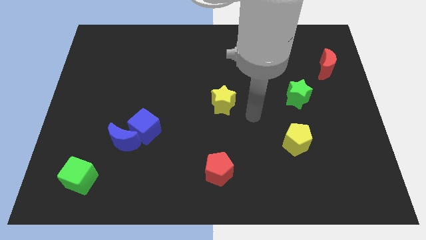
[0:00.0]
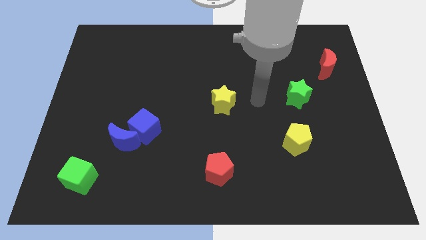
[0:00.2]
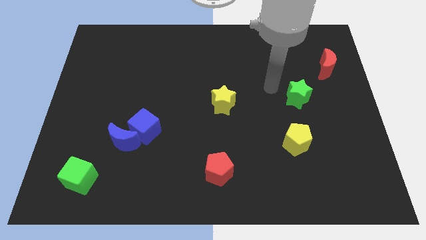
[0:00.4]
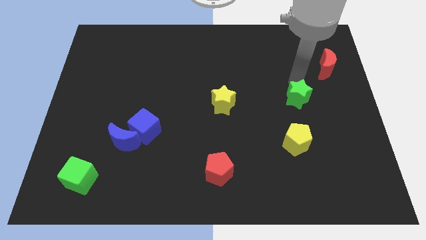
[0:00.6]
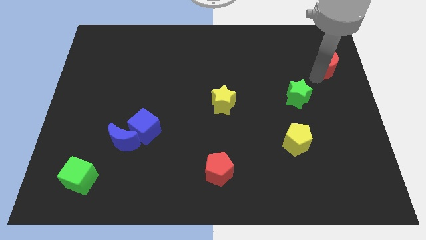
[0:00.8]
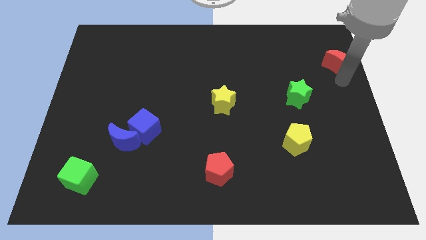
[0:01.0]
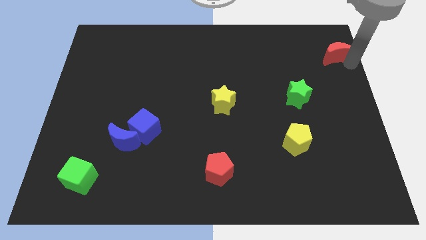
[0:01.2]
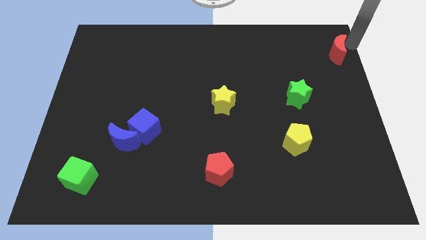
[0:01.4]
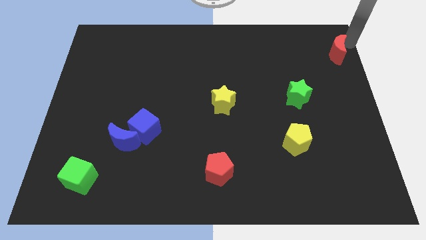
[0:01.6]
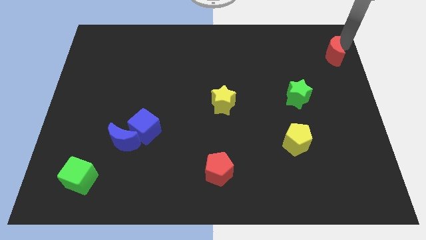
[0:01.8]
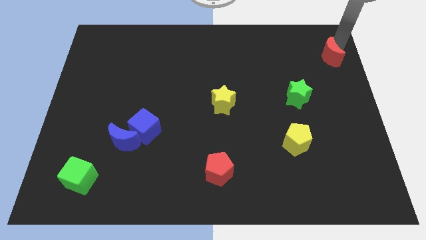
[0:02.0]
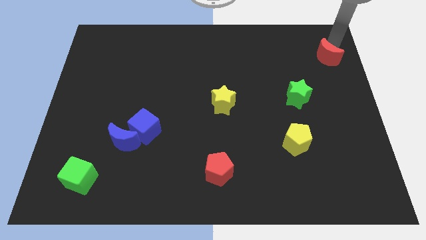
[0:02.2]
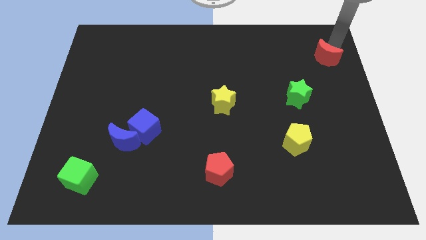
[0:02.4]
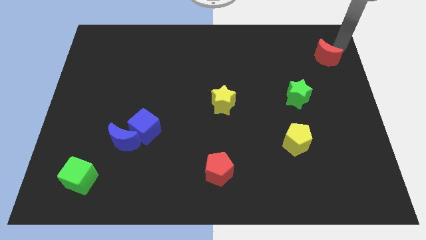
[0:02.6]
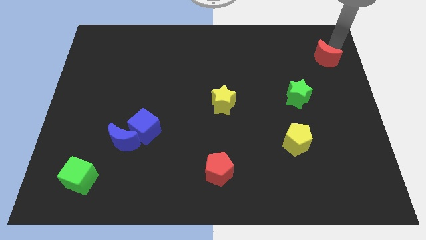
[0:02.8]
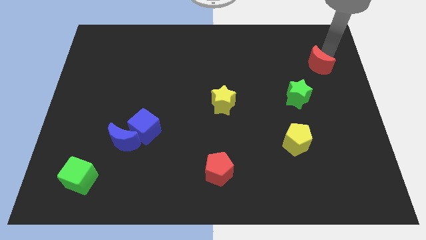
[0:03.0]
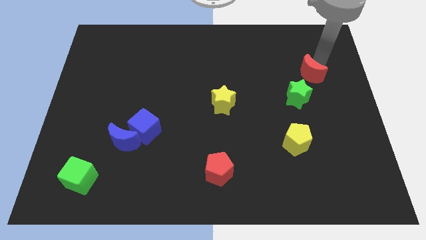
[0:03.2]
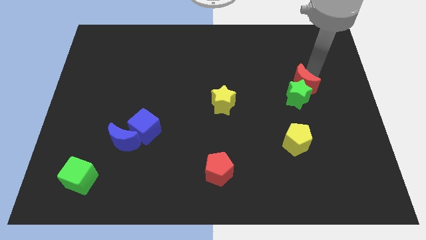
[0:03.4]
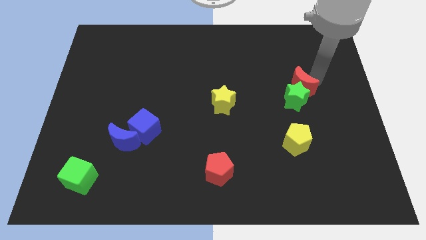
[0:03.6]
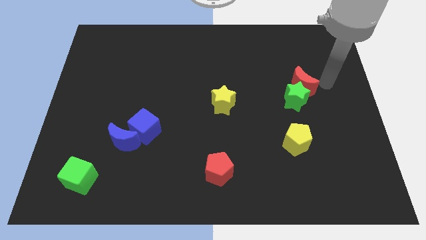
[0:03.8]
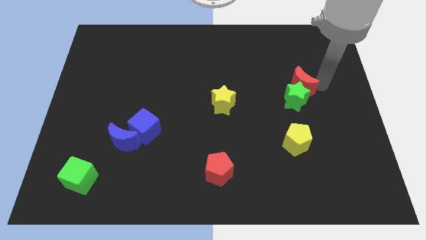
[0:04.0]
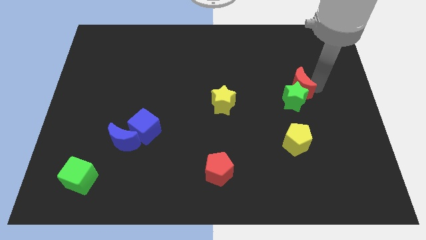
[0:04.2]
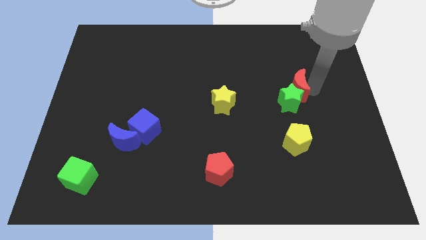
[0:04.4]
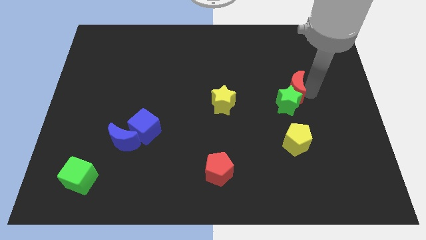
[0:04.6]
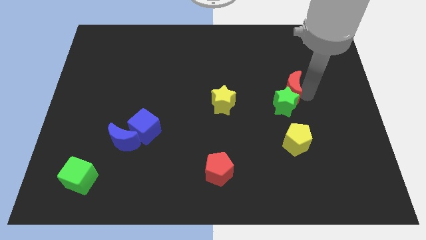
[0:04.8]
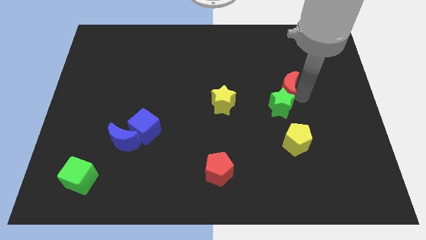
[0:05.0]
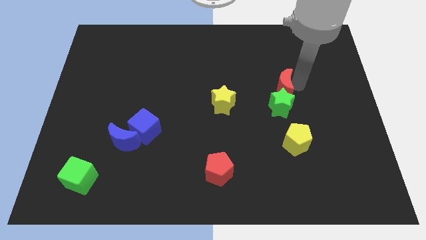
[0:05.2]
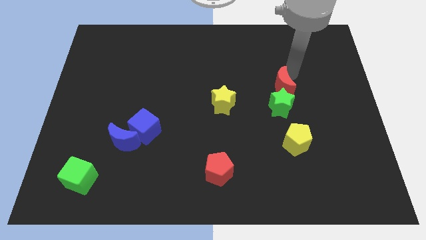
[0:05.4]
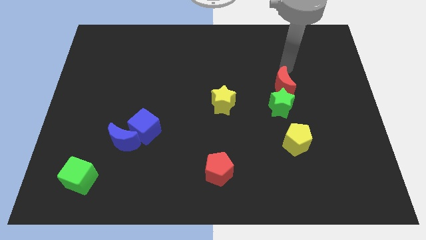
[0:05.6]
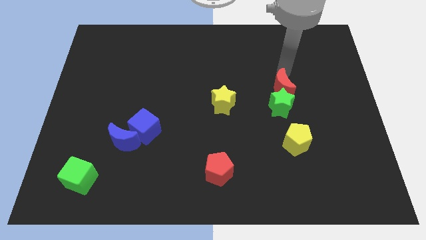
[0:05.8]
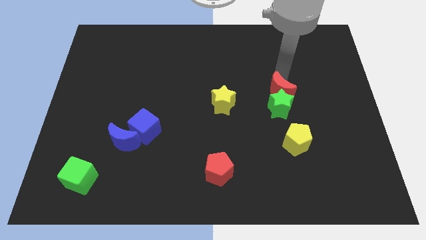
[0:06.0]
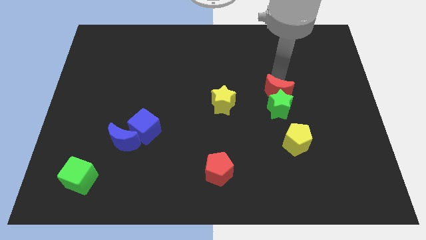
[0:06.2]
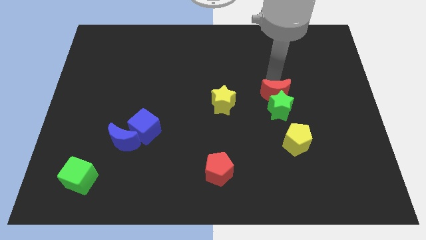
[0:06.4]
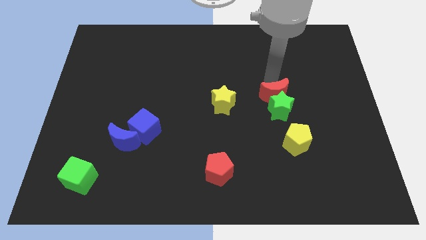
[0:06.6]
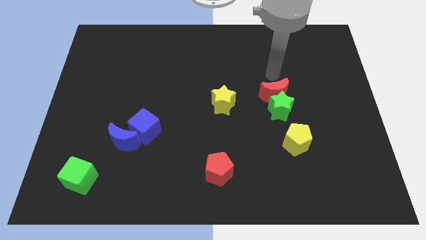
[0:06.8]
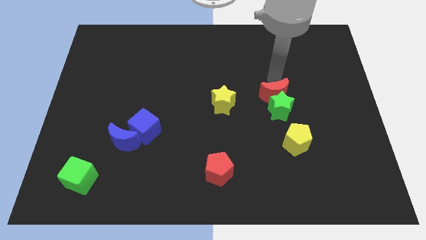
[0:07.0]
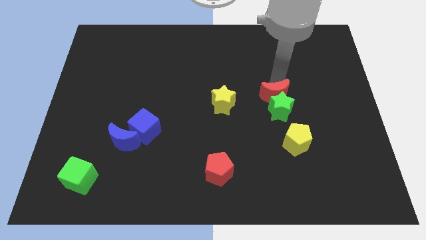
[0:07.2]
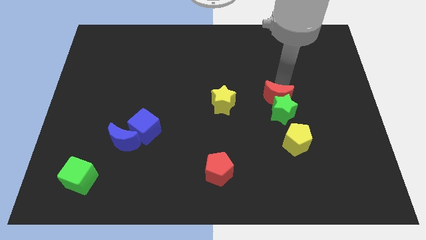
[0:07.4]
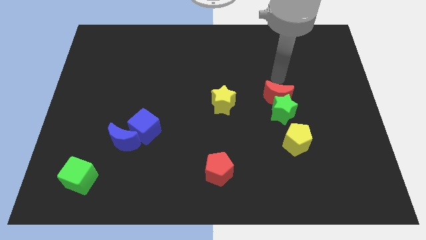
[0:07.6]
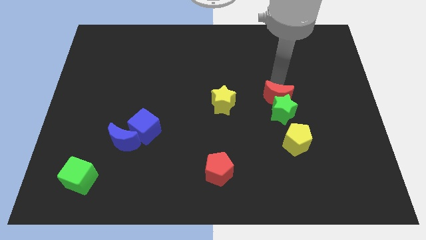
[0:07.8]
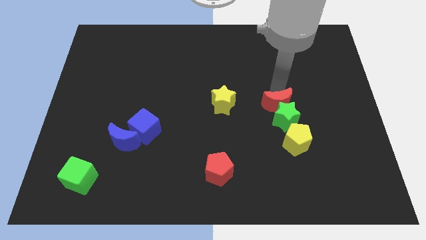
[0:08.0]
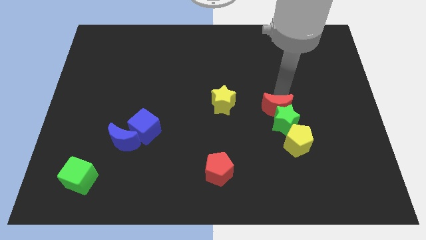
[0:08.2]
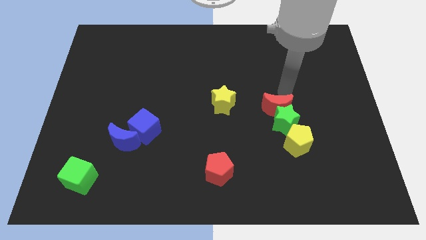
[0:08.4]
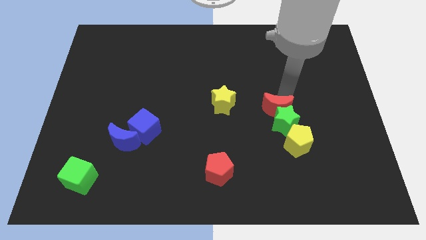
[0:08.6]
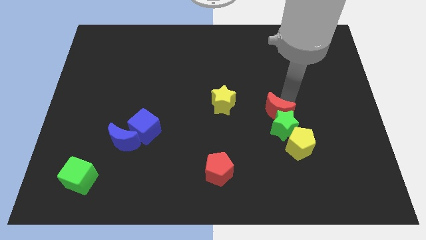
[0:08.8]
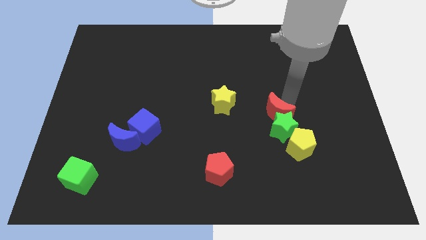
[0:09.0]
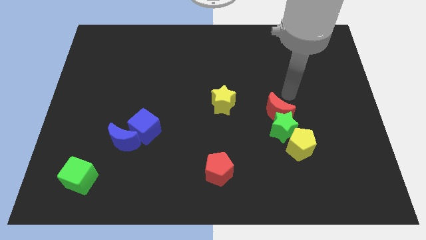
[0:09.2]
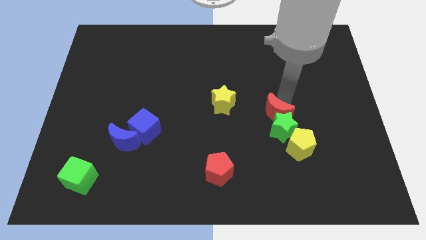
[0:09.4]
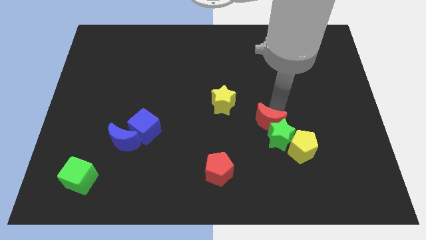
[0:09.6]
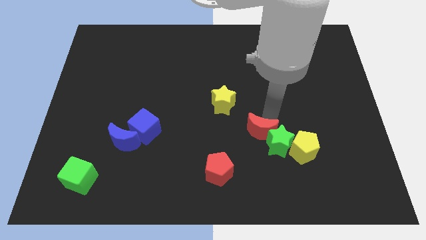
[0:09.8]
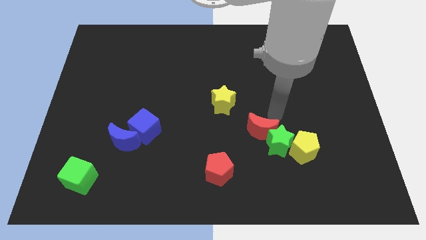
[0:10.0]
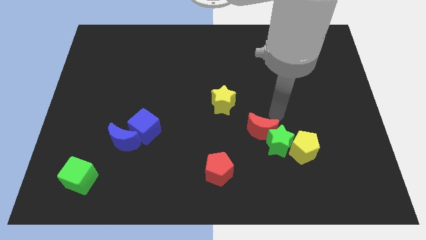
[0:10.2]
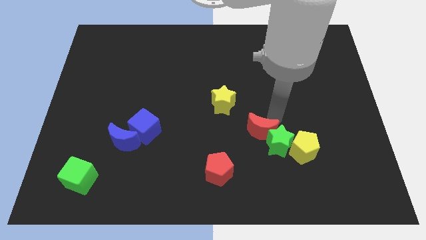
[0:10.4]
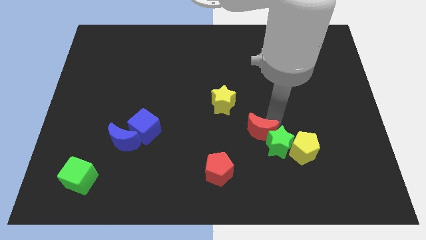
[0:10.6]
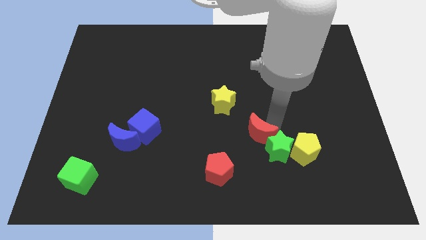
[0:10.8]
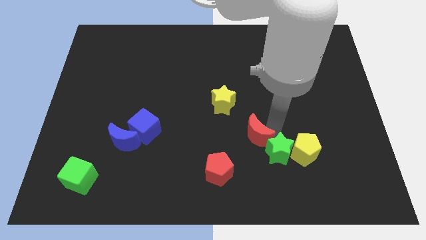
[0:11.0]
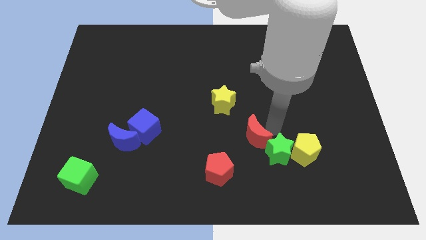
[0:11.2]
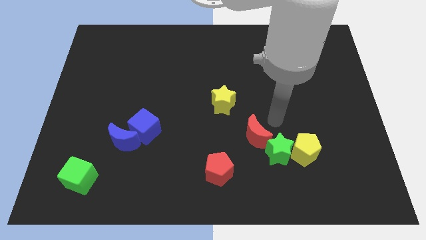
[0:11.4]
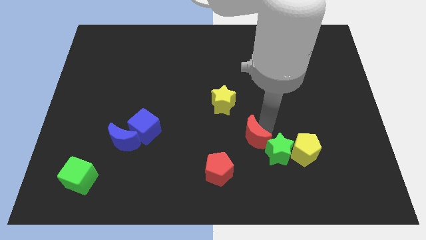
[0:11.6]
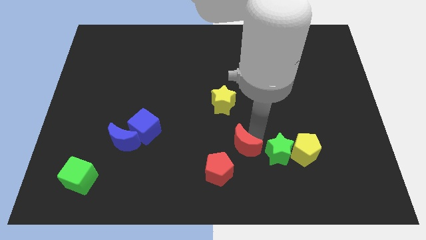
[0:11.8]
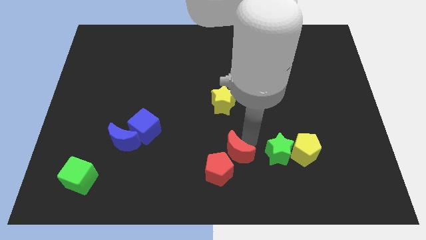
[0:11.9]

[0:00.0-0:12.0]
put the red moon next to the red pentagon

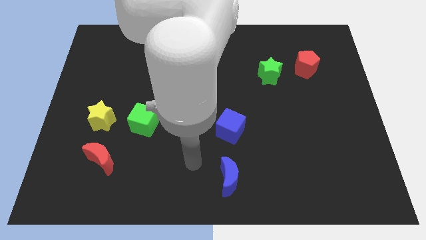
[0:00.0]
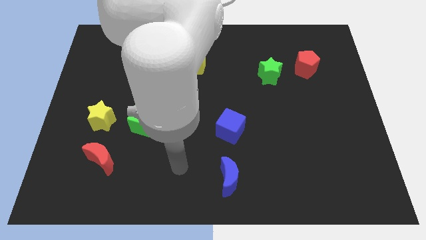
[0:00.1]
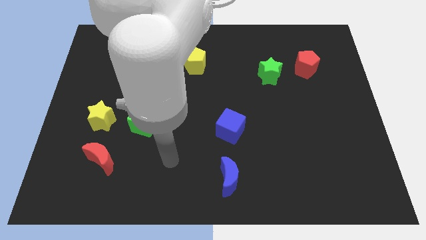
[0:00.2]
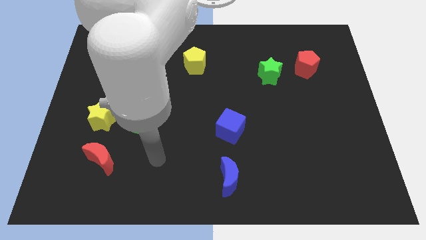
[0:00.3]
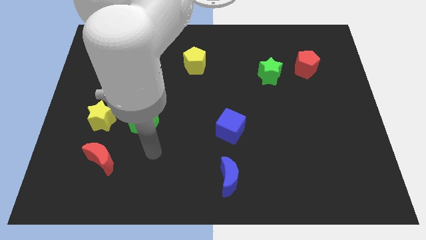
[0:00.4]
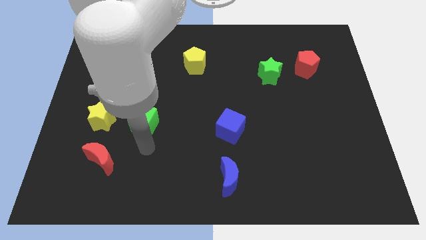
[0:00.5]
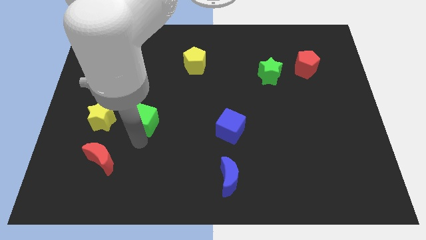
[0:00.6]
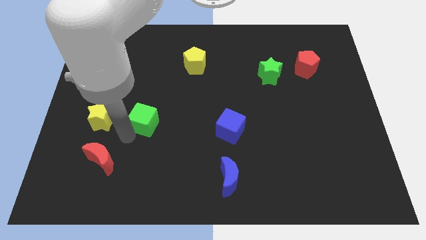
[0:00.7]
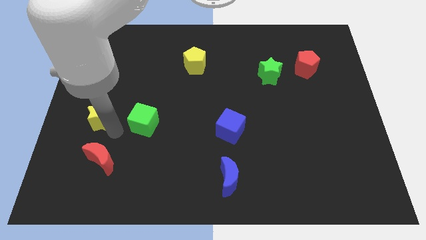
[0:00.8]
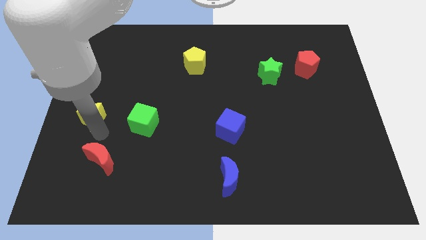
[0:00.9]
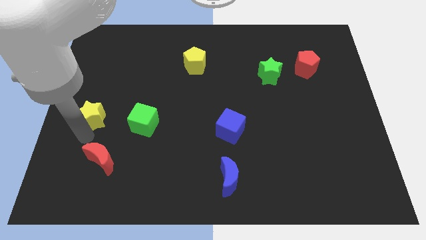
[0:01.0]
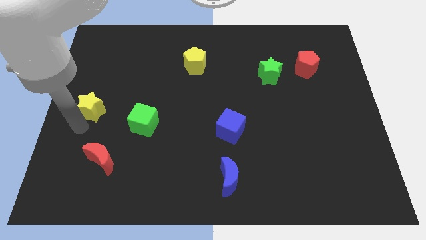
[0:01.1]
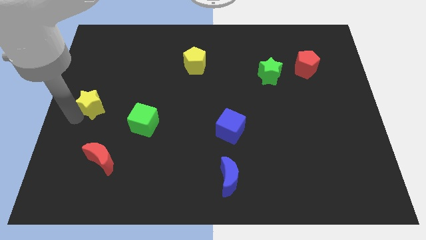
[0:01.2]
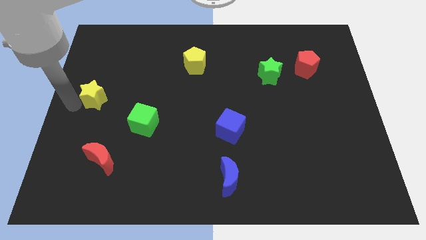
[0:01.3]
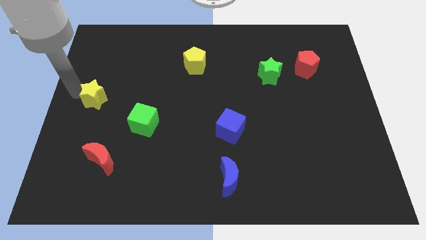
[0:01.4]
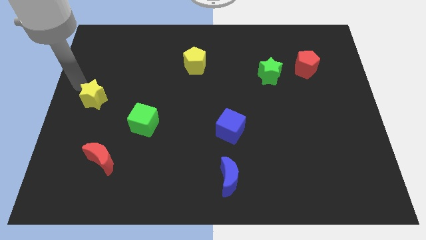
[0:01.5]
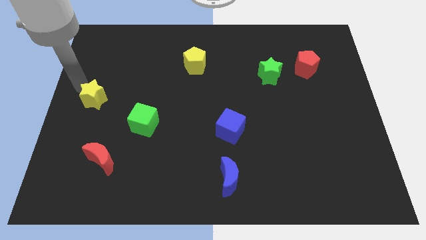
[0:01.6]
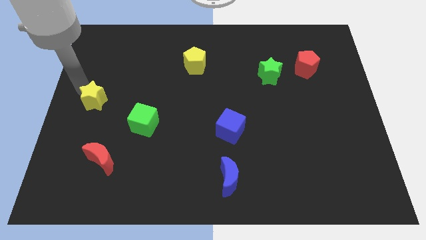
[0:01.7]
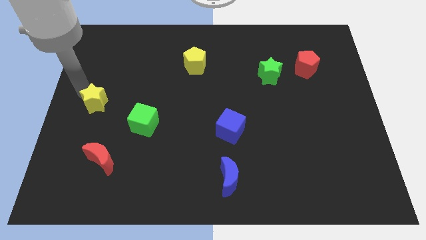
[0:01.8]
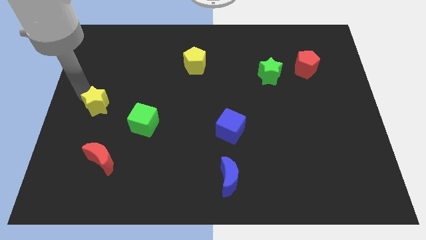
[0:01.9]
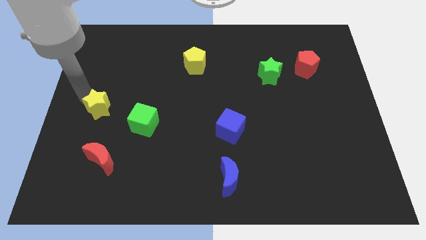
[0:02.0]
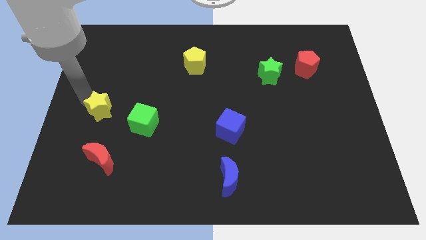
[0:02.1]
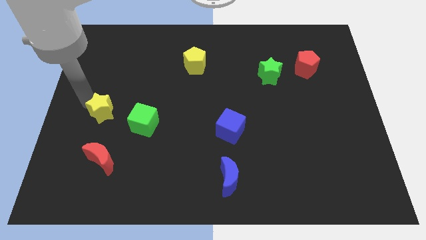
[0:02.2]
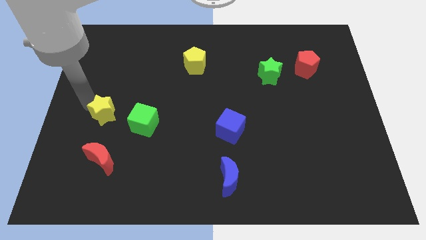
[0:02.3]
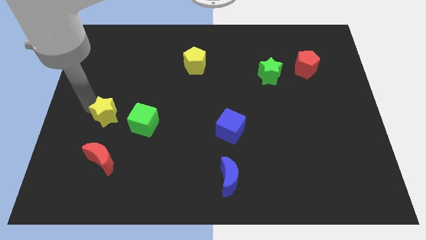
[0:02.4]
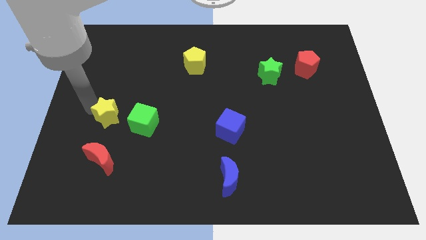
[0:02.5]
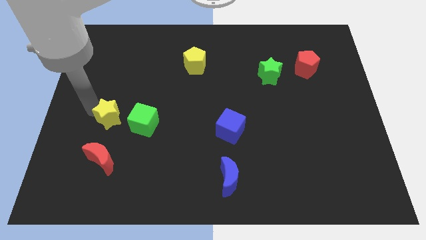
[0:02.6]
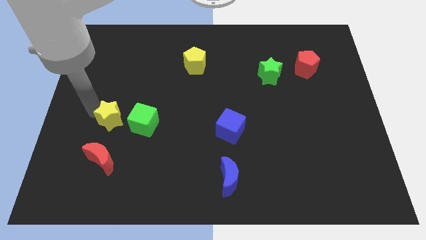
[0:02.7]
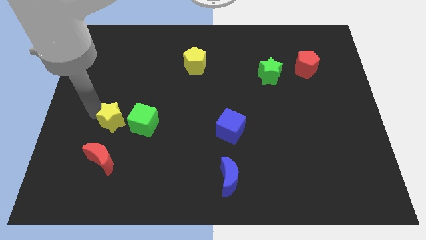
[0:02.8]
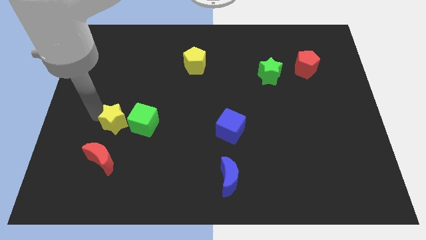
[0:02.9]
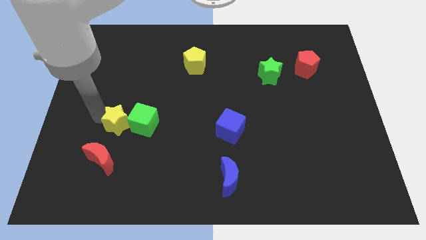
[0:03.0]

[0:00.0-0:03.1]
put the yellow star close to the green cube
